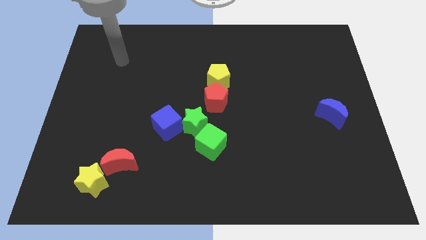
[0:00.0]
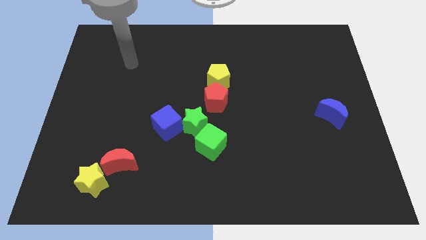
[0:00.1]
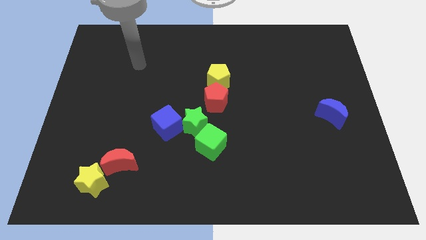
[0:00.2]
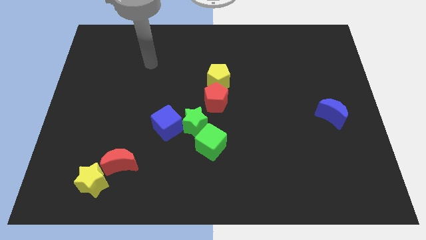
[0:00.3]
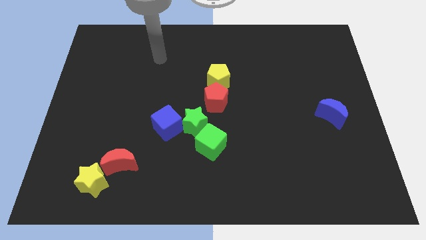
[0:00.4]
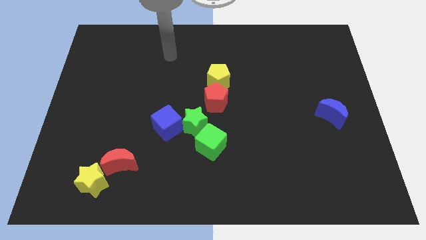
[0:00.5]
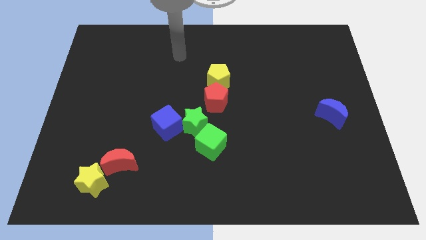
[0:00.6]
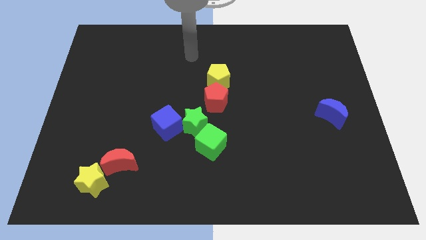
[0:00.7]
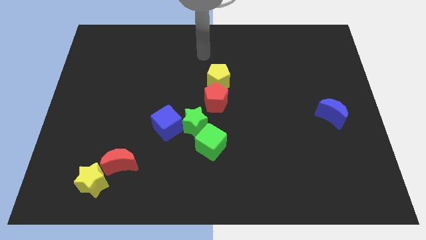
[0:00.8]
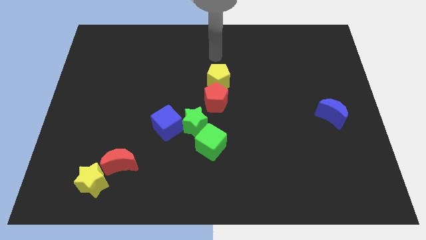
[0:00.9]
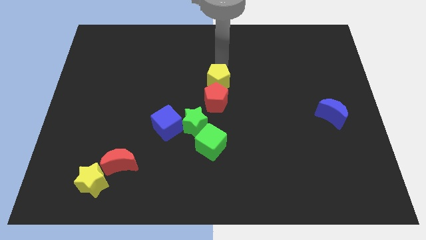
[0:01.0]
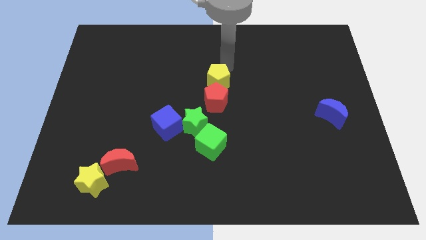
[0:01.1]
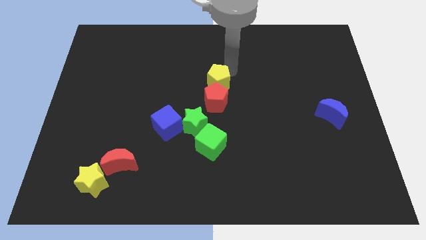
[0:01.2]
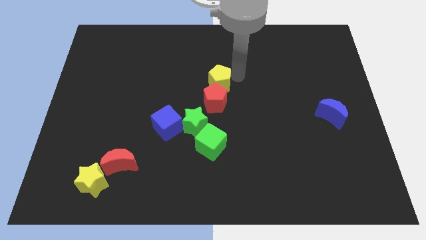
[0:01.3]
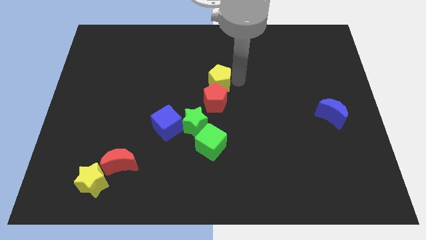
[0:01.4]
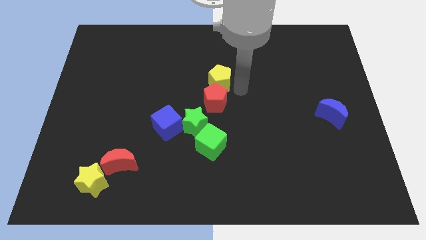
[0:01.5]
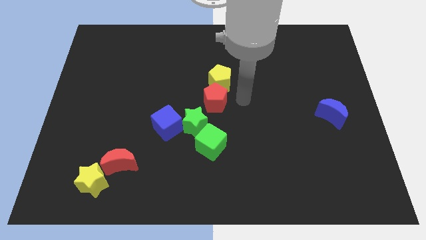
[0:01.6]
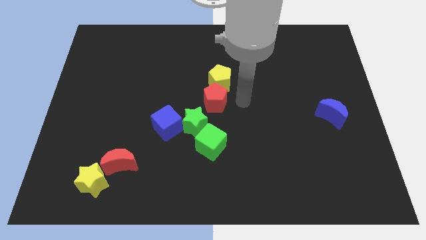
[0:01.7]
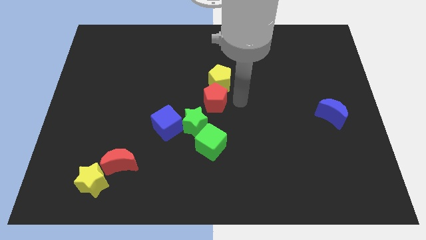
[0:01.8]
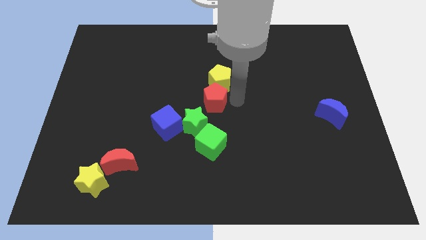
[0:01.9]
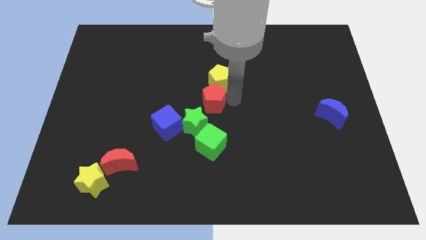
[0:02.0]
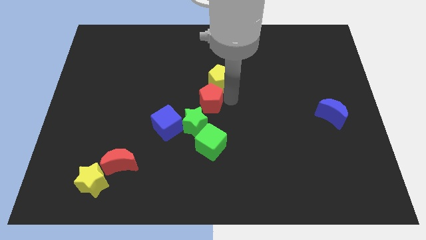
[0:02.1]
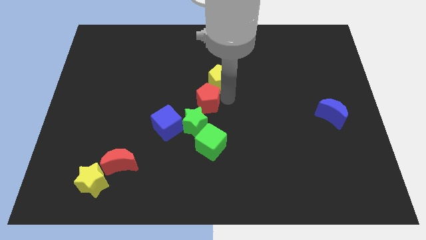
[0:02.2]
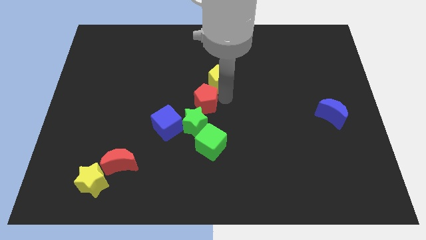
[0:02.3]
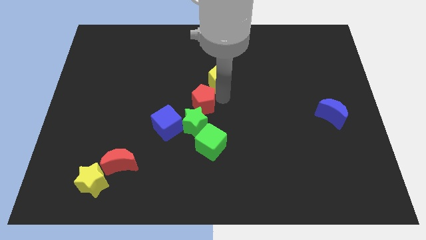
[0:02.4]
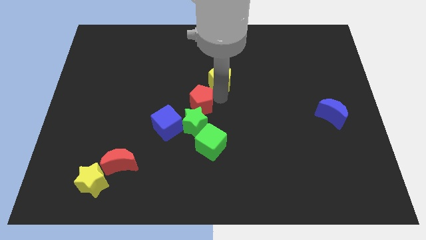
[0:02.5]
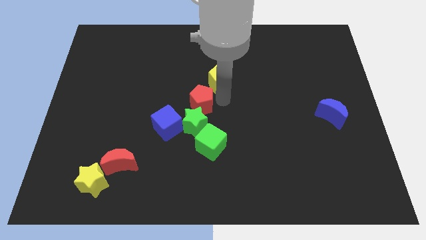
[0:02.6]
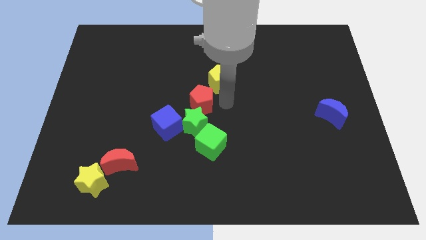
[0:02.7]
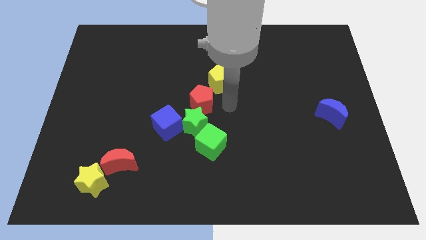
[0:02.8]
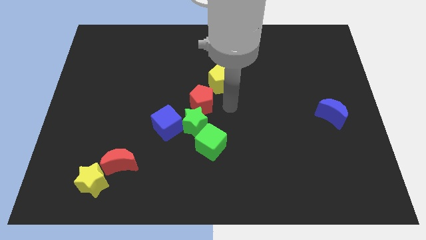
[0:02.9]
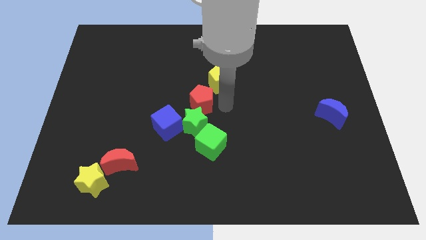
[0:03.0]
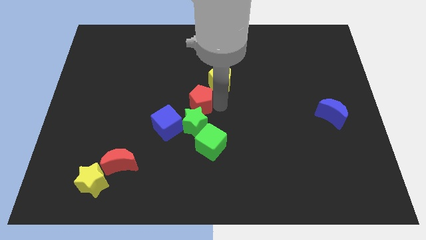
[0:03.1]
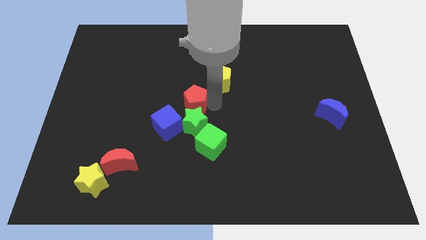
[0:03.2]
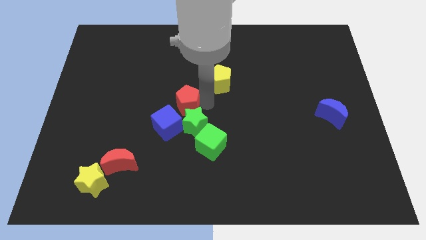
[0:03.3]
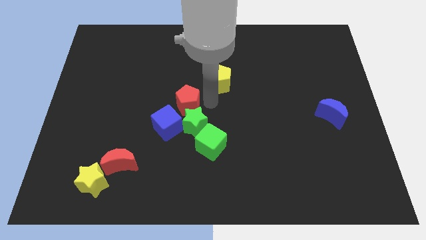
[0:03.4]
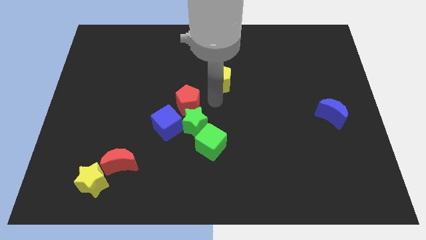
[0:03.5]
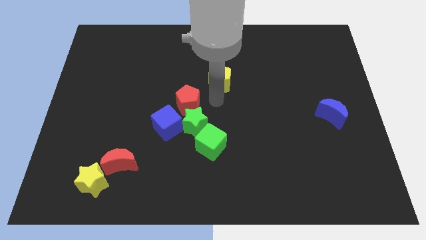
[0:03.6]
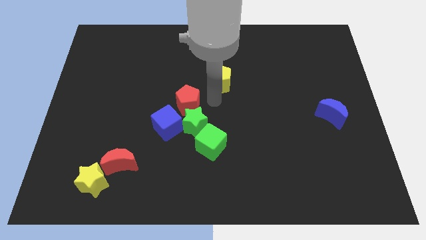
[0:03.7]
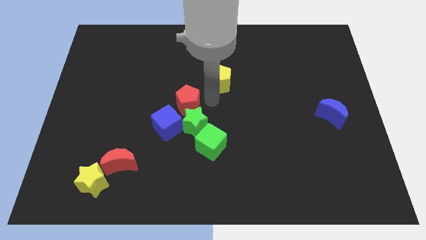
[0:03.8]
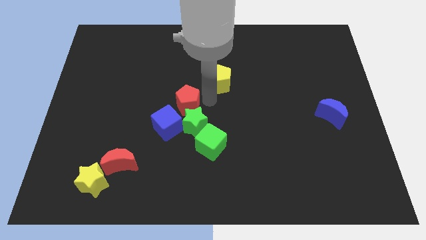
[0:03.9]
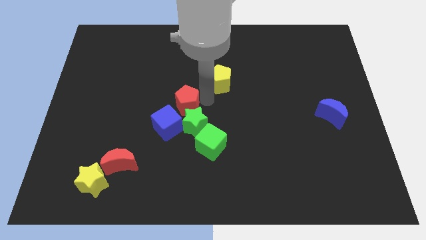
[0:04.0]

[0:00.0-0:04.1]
push the red pentagon left a little

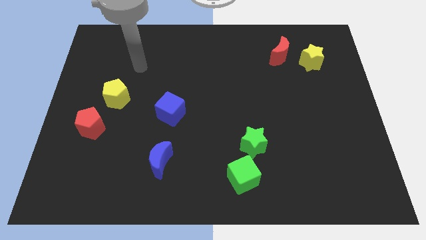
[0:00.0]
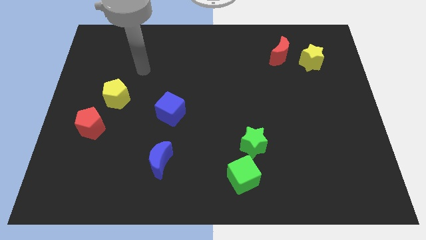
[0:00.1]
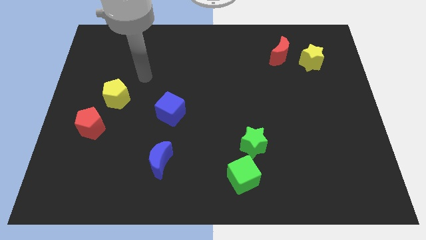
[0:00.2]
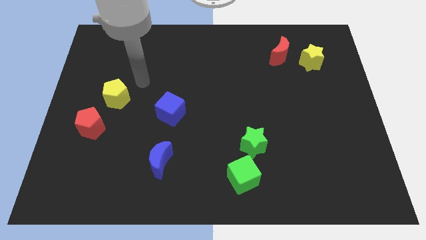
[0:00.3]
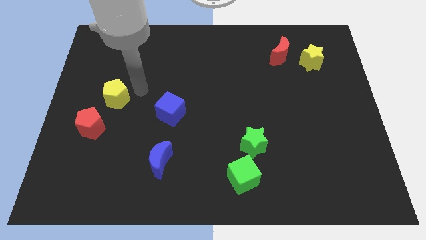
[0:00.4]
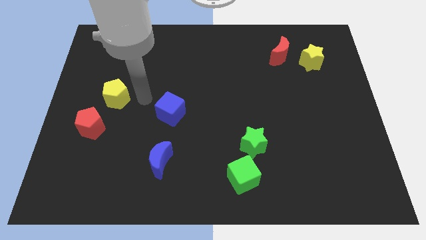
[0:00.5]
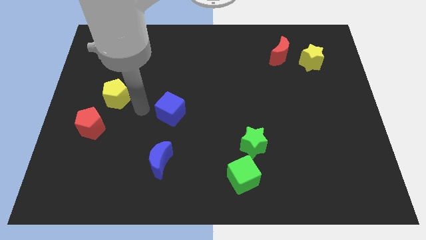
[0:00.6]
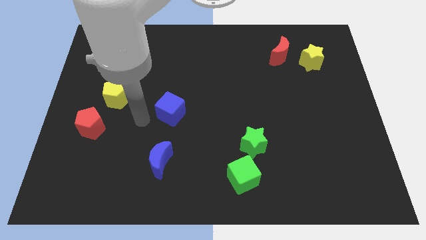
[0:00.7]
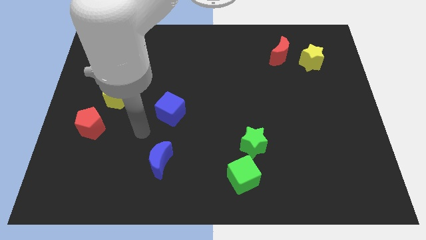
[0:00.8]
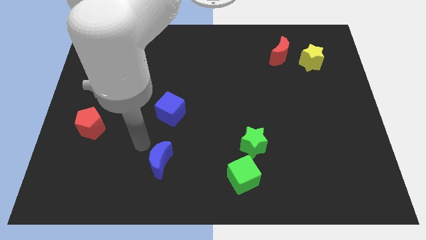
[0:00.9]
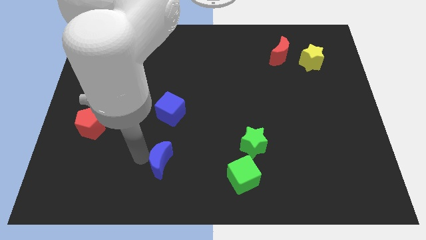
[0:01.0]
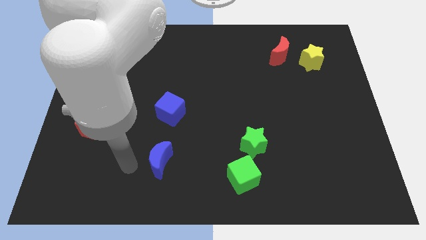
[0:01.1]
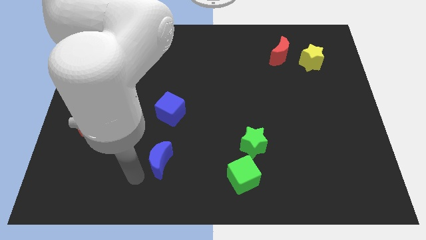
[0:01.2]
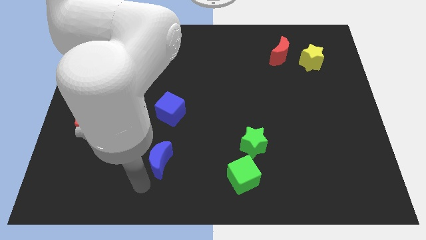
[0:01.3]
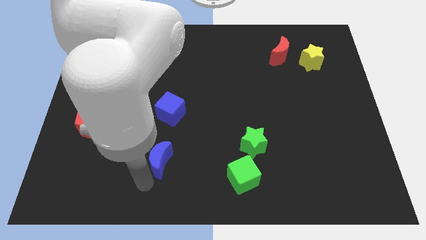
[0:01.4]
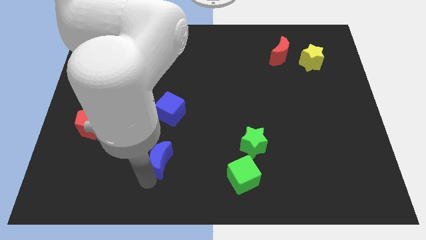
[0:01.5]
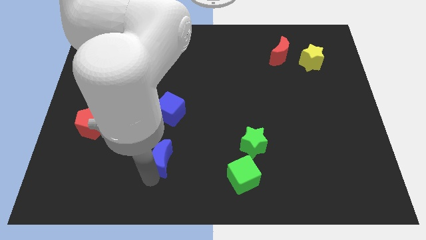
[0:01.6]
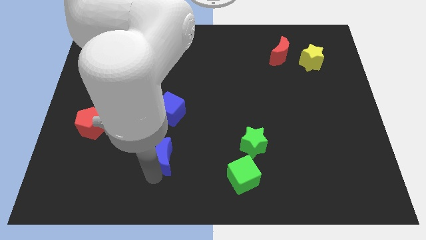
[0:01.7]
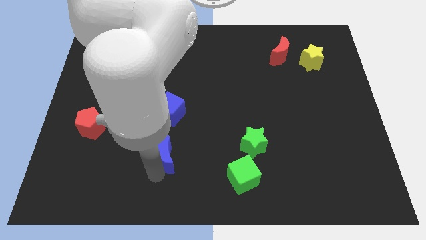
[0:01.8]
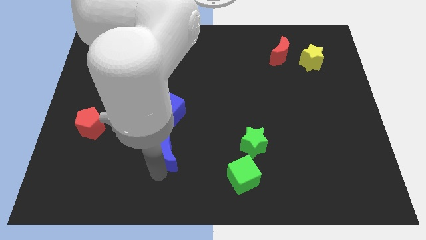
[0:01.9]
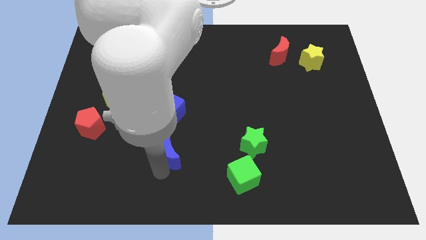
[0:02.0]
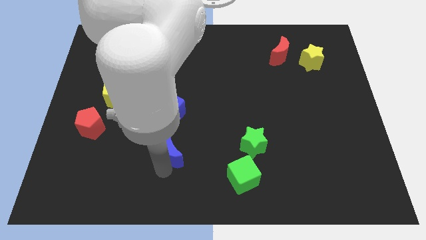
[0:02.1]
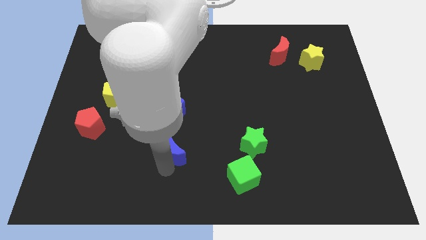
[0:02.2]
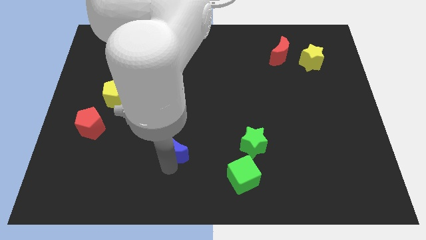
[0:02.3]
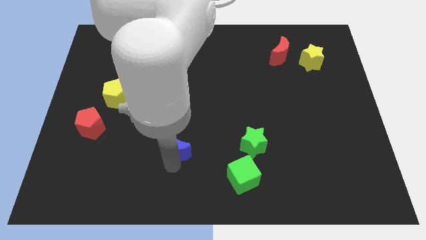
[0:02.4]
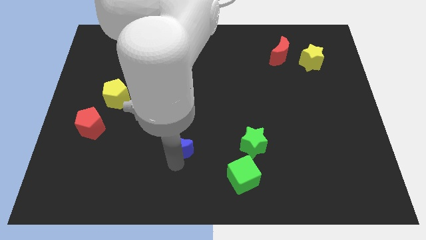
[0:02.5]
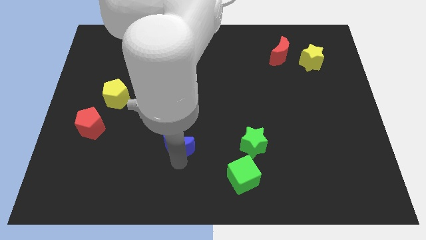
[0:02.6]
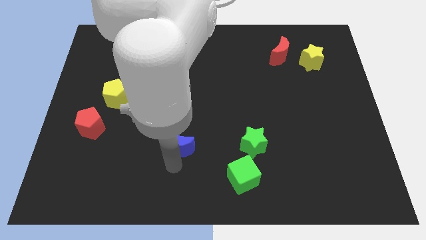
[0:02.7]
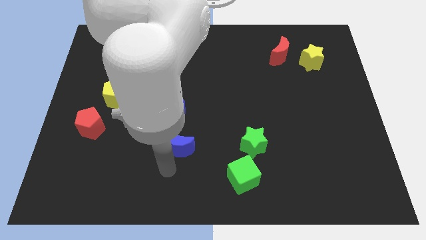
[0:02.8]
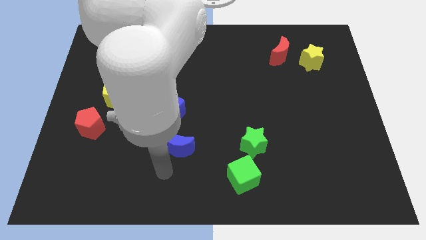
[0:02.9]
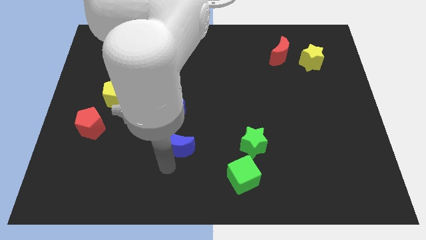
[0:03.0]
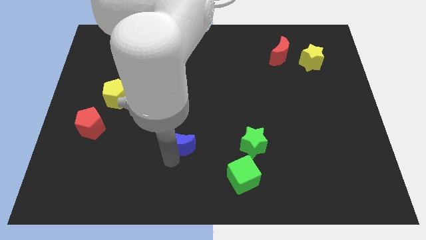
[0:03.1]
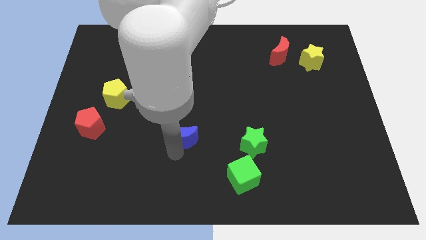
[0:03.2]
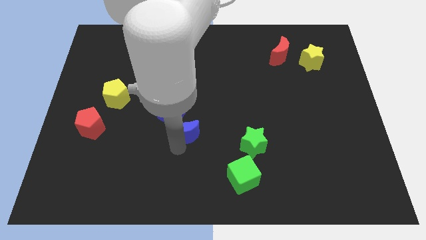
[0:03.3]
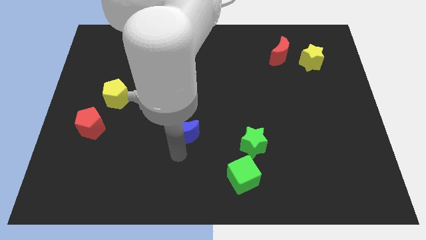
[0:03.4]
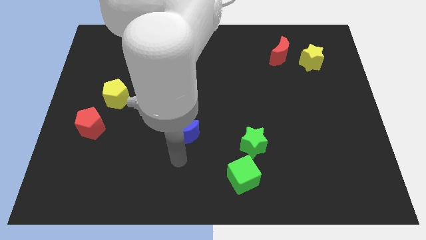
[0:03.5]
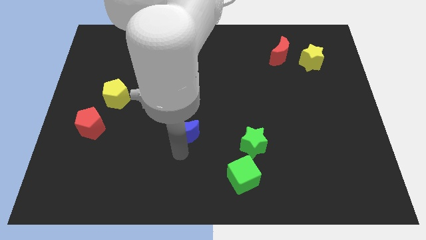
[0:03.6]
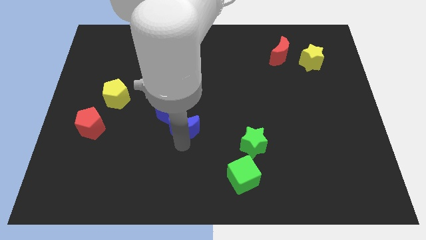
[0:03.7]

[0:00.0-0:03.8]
push the blue moon up a little

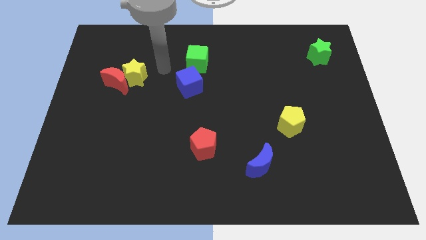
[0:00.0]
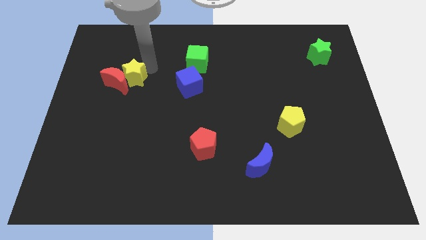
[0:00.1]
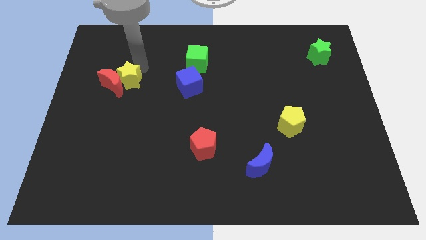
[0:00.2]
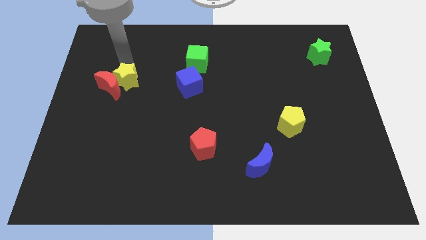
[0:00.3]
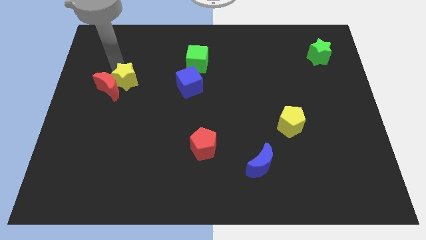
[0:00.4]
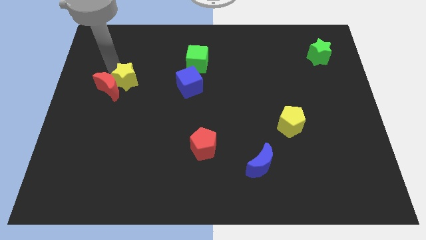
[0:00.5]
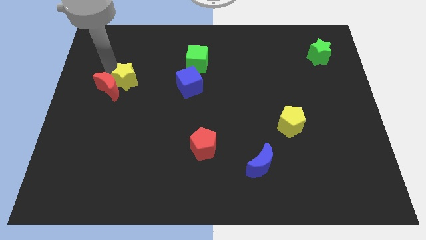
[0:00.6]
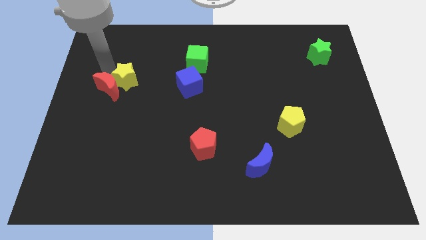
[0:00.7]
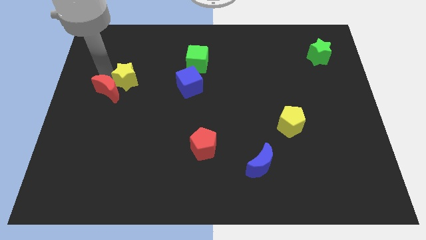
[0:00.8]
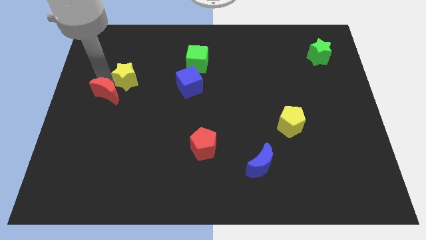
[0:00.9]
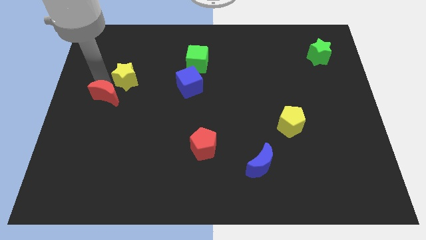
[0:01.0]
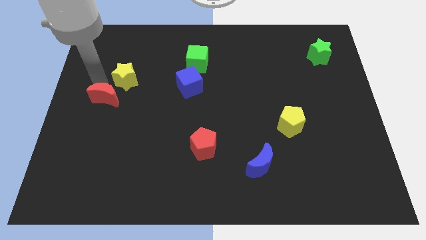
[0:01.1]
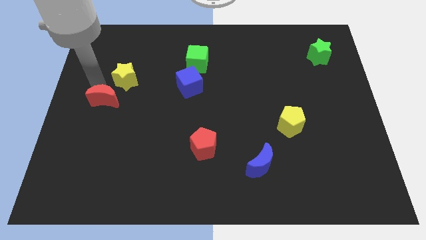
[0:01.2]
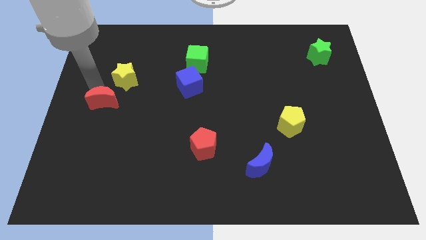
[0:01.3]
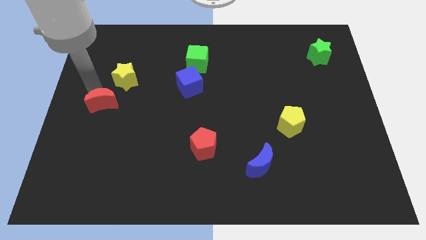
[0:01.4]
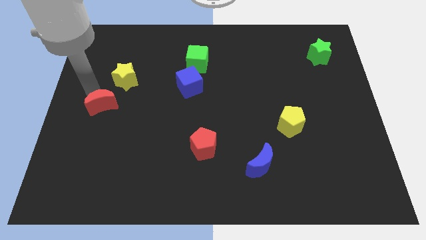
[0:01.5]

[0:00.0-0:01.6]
move the red moon somewhat downwards
